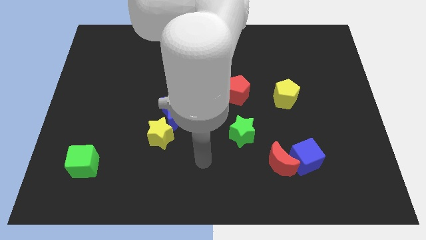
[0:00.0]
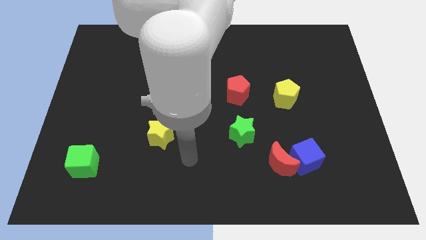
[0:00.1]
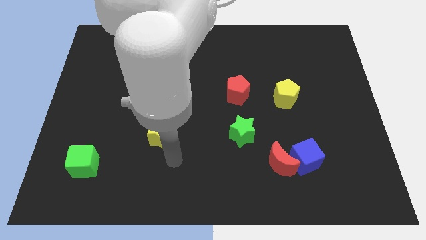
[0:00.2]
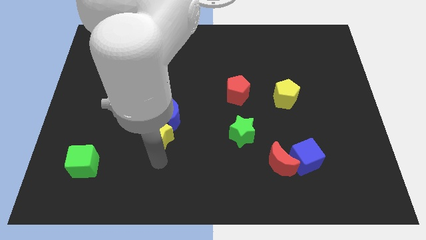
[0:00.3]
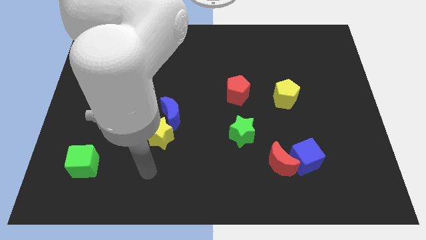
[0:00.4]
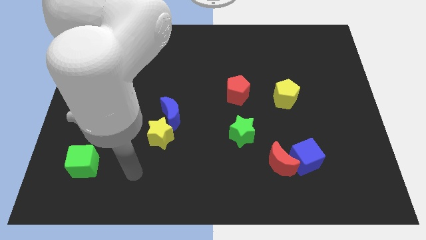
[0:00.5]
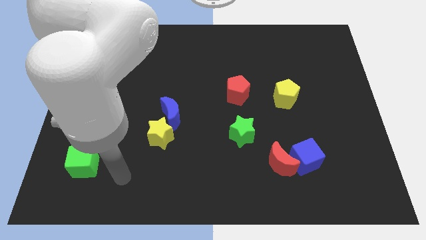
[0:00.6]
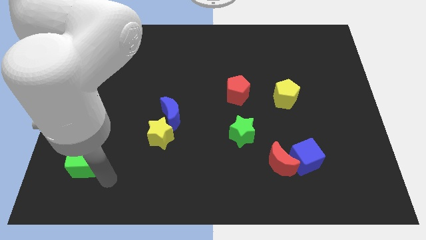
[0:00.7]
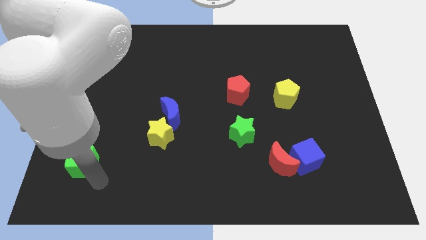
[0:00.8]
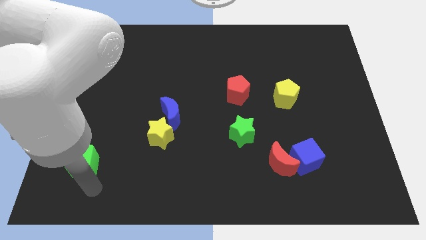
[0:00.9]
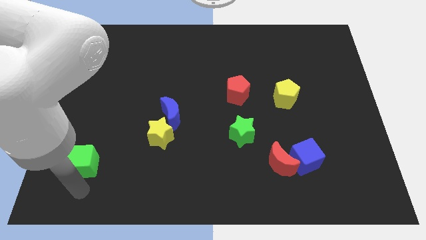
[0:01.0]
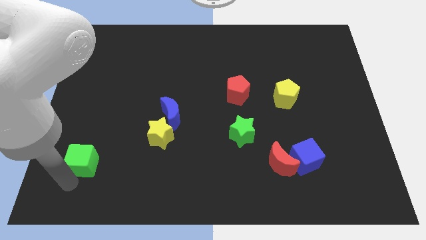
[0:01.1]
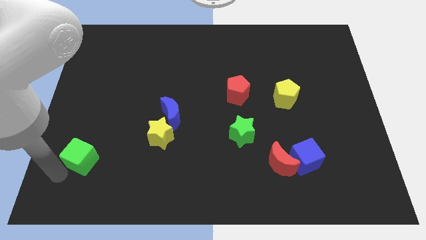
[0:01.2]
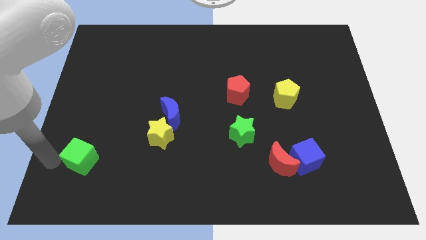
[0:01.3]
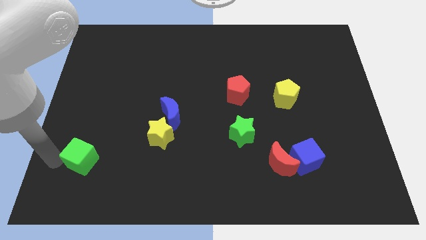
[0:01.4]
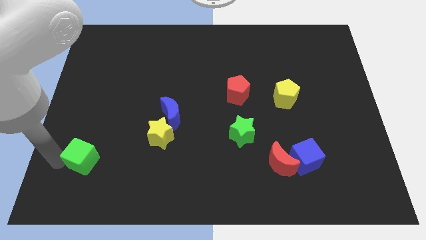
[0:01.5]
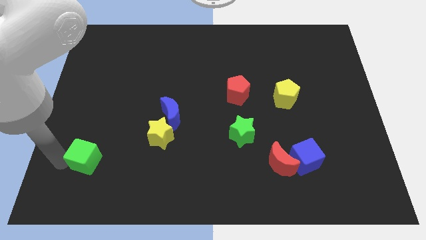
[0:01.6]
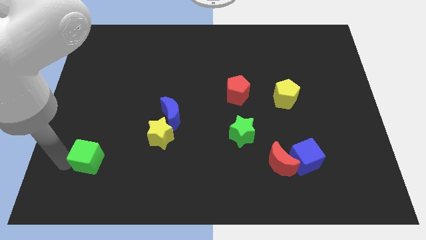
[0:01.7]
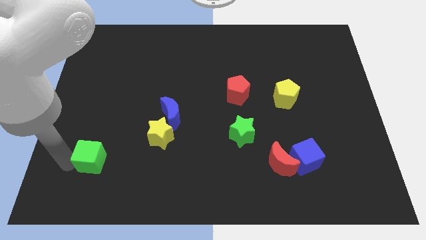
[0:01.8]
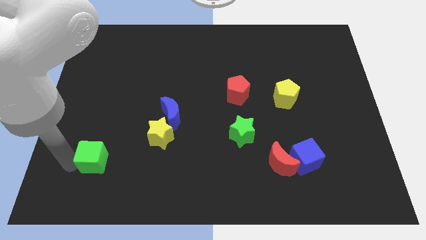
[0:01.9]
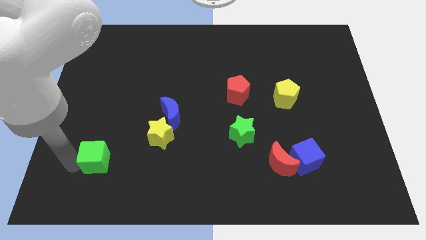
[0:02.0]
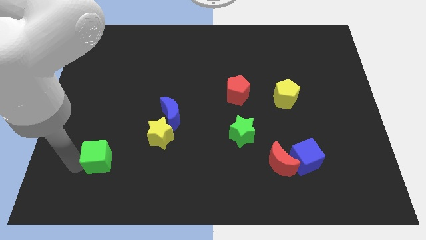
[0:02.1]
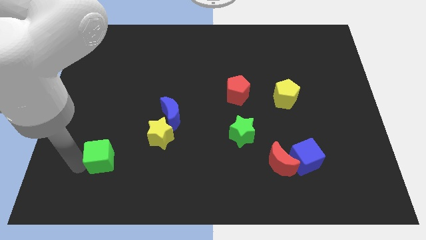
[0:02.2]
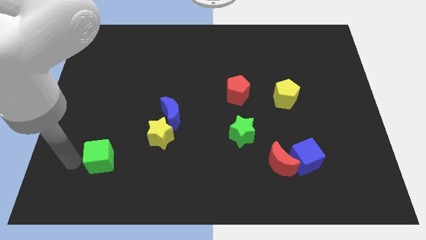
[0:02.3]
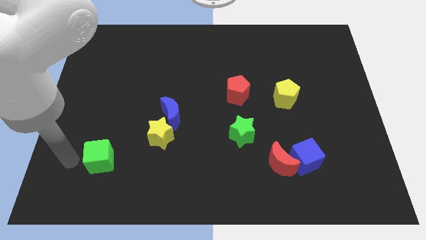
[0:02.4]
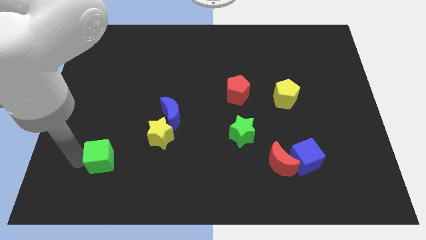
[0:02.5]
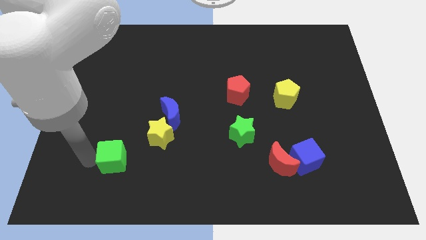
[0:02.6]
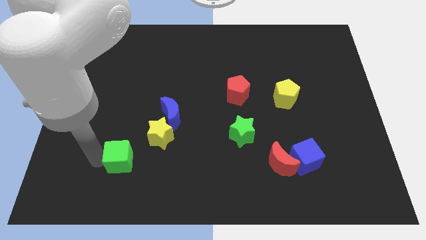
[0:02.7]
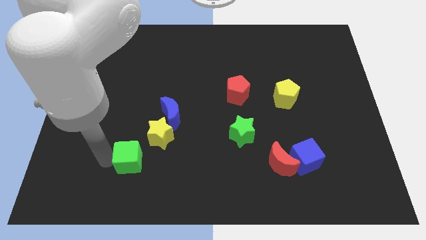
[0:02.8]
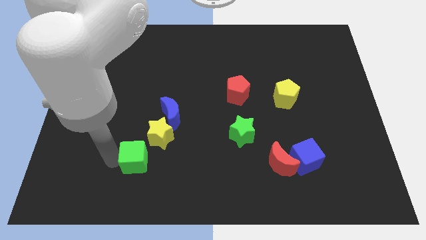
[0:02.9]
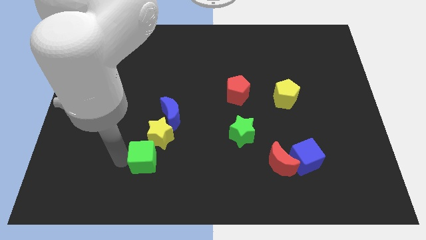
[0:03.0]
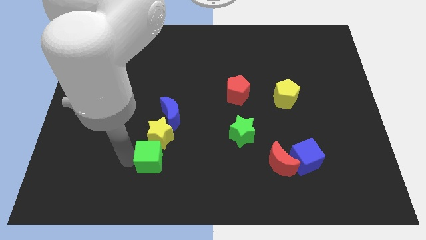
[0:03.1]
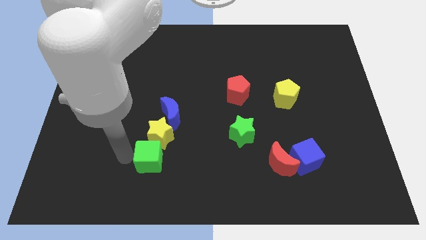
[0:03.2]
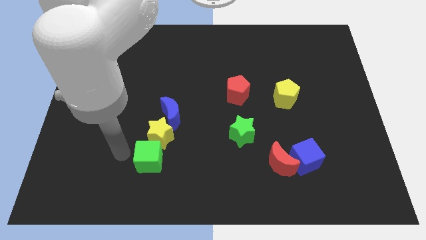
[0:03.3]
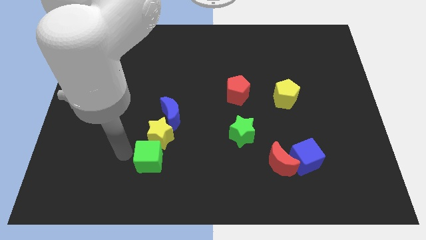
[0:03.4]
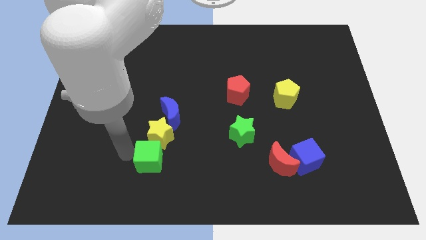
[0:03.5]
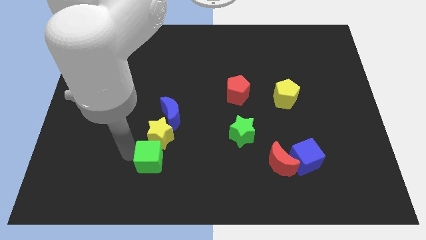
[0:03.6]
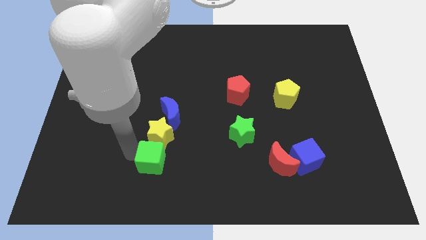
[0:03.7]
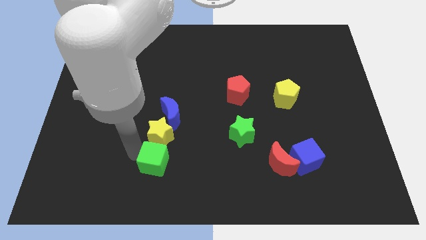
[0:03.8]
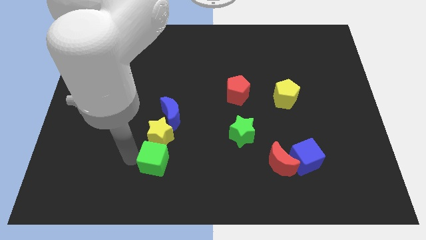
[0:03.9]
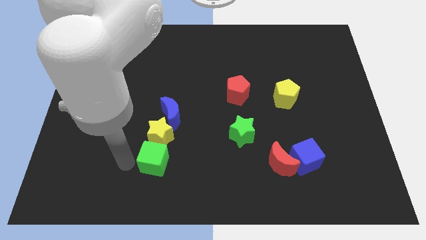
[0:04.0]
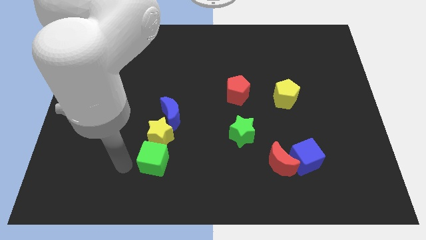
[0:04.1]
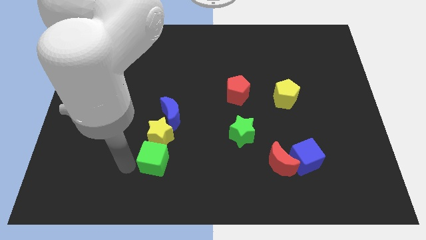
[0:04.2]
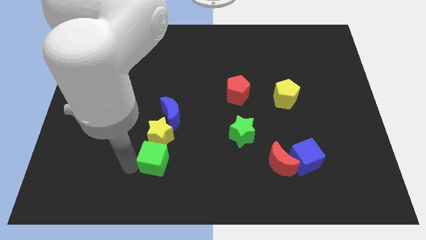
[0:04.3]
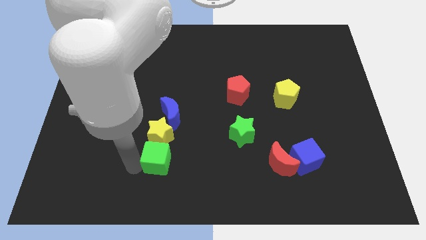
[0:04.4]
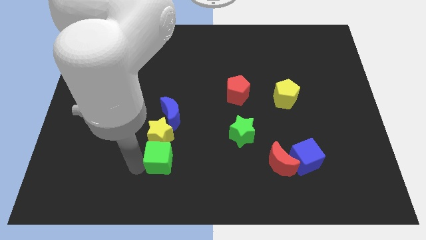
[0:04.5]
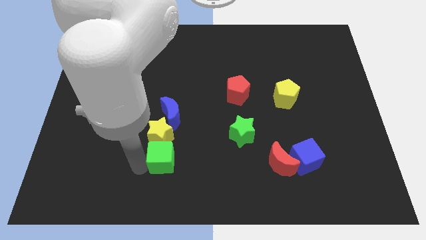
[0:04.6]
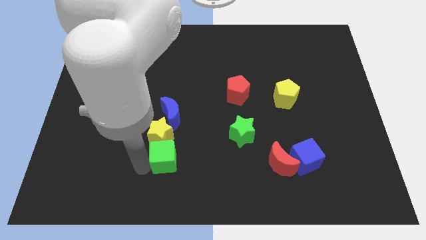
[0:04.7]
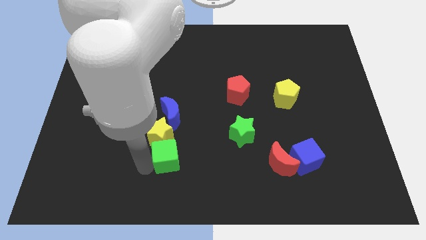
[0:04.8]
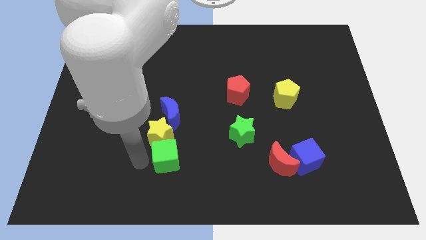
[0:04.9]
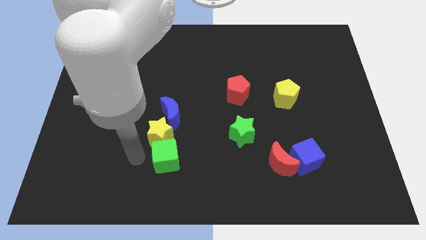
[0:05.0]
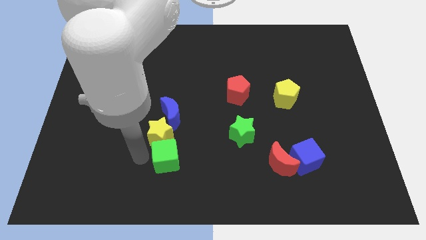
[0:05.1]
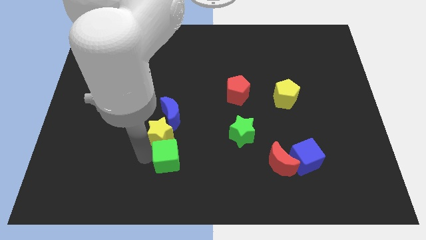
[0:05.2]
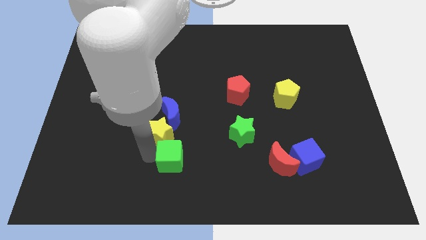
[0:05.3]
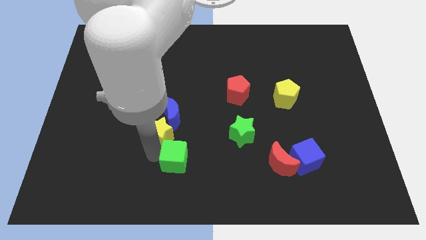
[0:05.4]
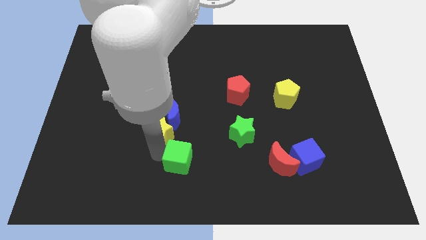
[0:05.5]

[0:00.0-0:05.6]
push the green cube to the right

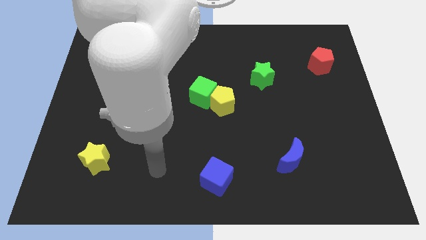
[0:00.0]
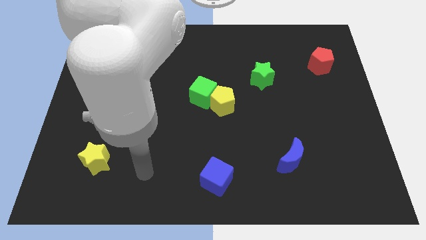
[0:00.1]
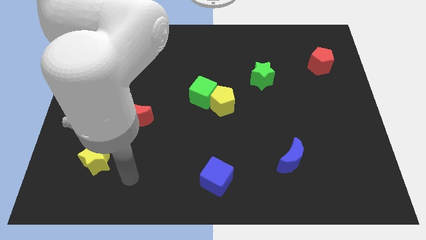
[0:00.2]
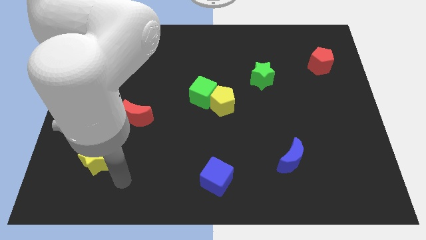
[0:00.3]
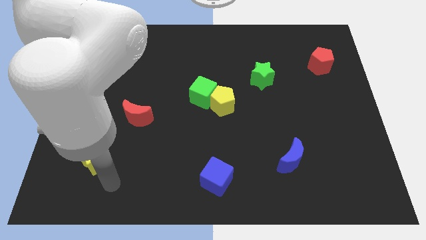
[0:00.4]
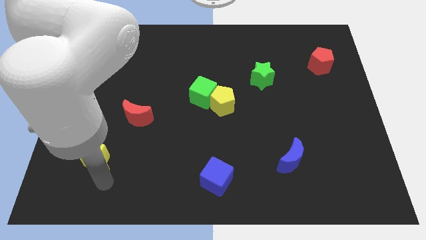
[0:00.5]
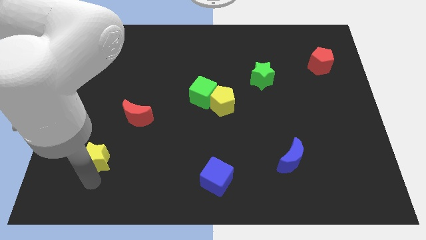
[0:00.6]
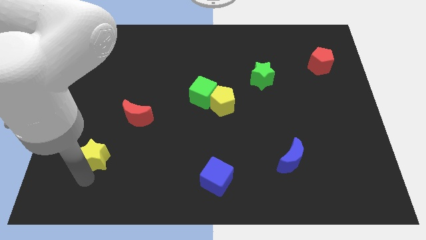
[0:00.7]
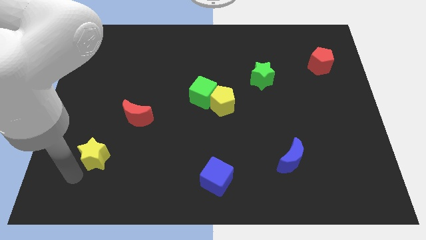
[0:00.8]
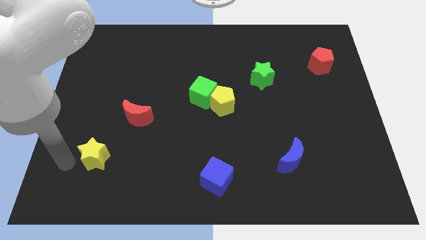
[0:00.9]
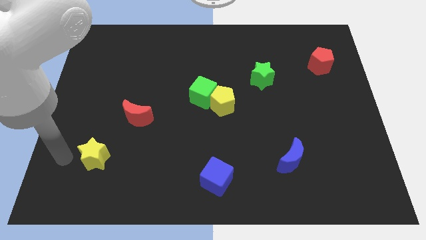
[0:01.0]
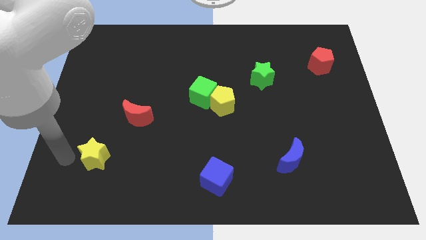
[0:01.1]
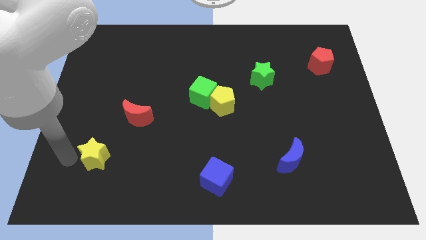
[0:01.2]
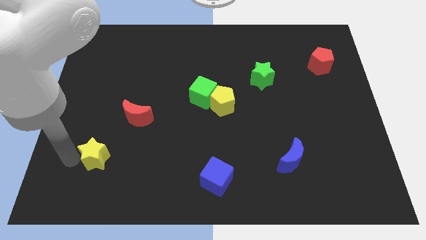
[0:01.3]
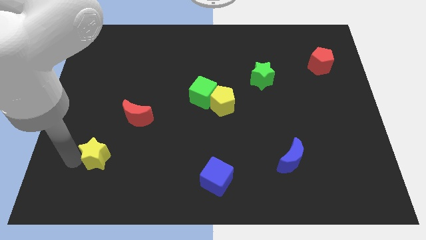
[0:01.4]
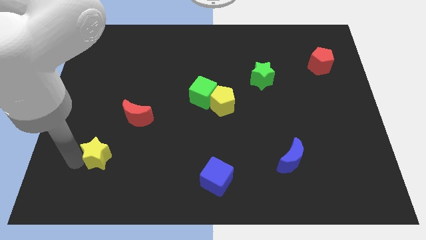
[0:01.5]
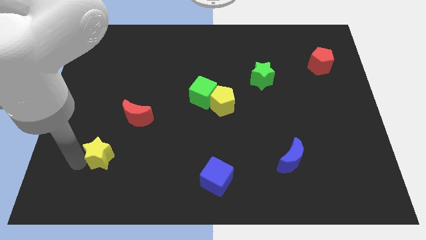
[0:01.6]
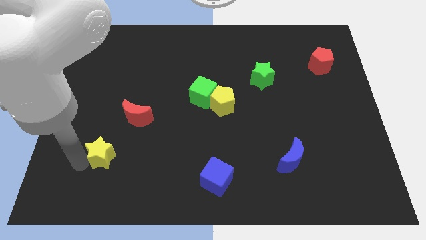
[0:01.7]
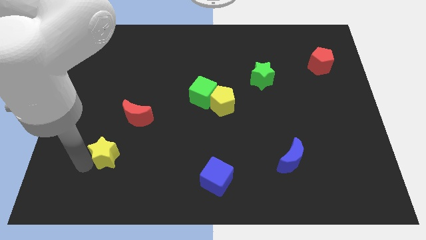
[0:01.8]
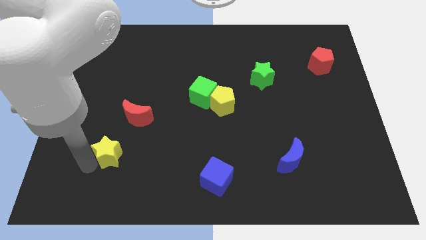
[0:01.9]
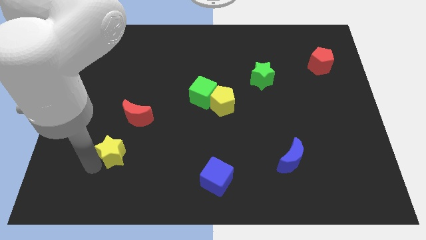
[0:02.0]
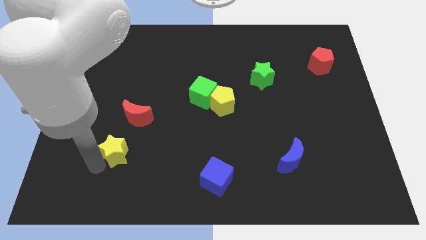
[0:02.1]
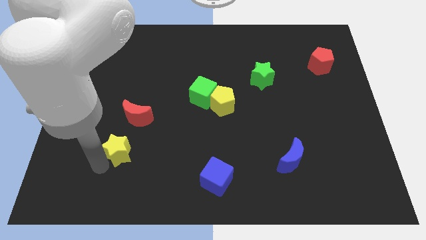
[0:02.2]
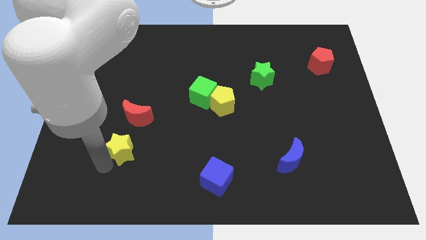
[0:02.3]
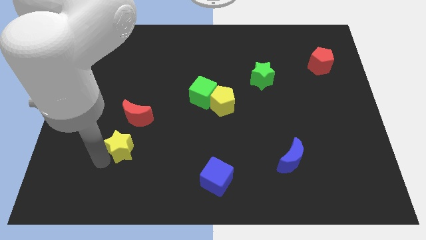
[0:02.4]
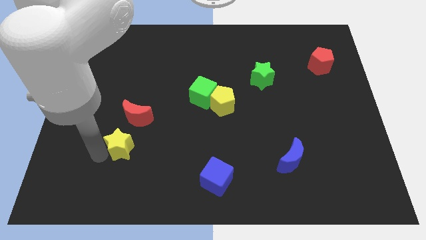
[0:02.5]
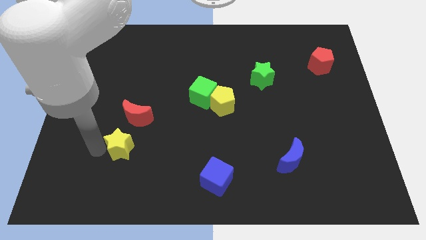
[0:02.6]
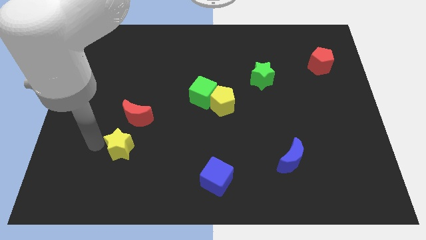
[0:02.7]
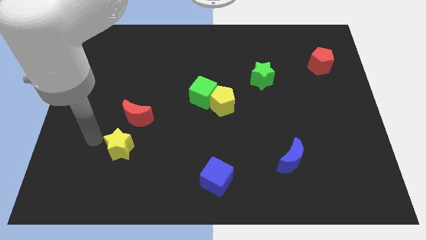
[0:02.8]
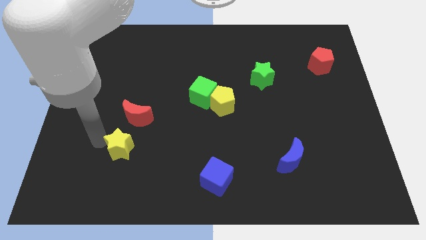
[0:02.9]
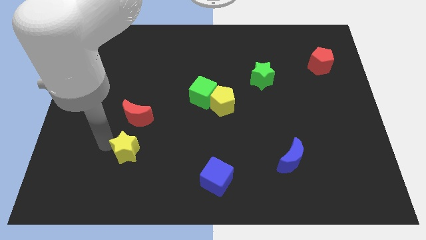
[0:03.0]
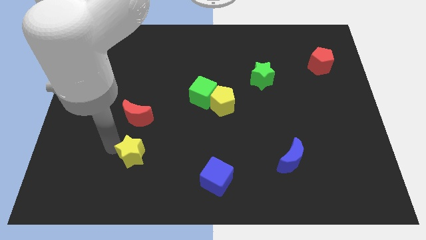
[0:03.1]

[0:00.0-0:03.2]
push the yellow star to the right a bit
